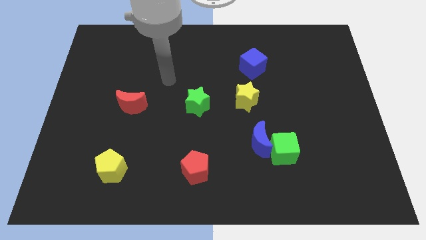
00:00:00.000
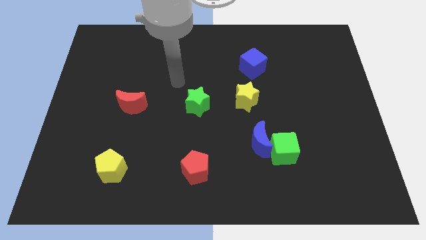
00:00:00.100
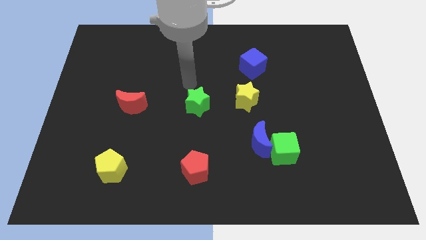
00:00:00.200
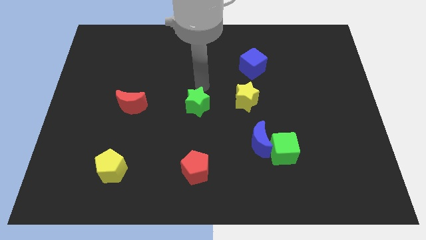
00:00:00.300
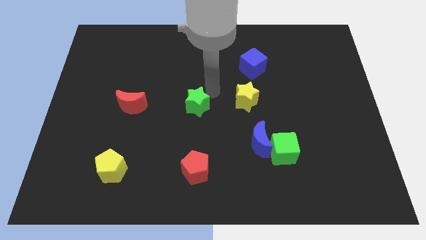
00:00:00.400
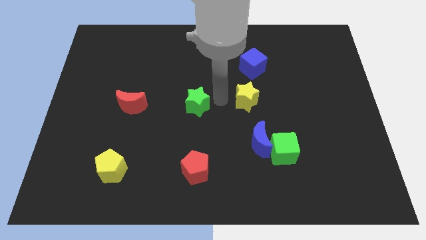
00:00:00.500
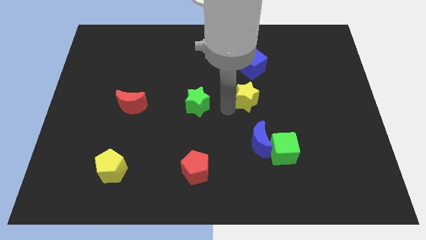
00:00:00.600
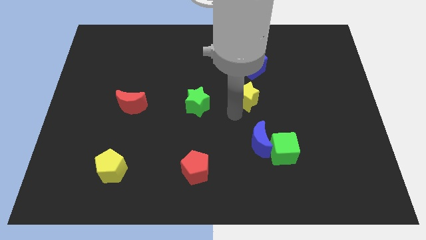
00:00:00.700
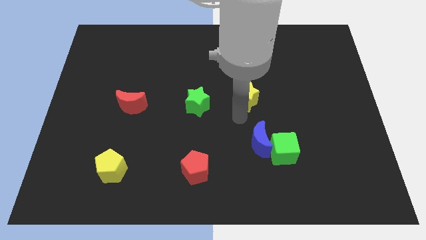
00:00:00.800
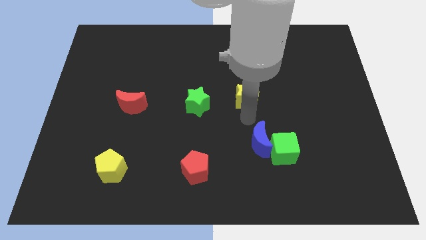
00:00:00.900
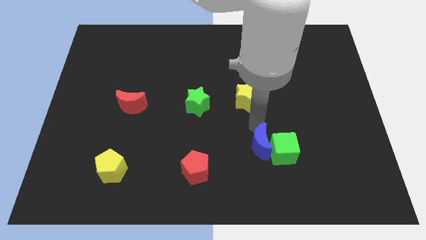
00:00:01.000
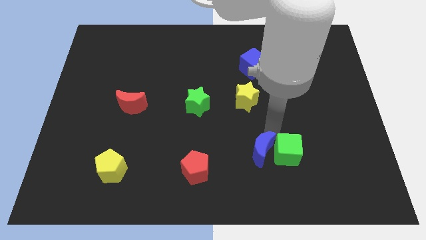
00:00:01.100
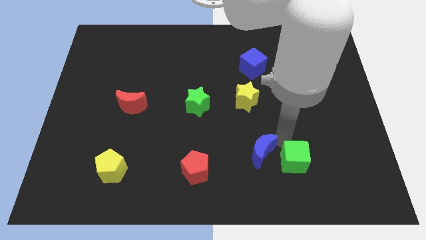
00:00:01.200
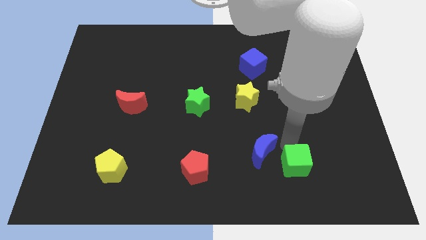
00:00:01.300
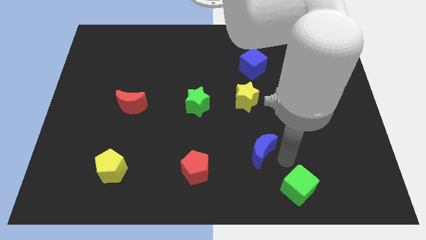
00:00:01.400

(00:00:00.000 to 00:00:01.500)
move the blue moon away from the green cube

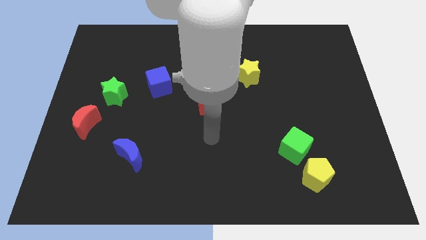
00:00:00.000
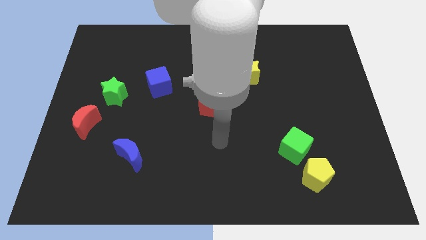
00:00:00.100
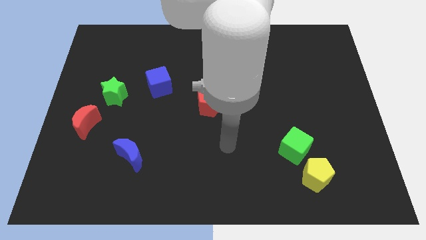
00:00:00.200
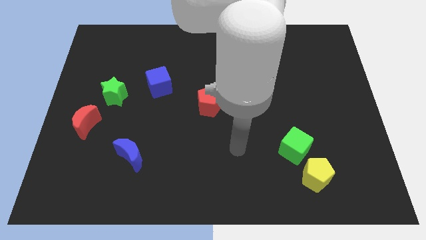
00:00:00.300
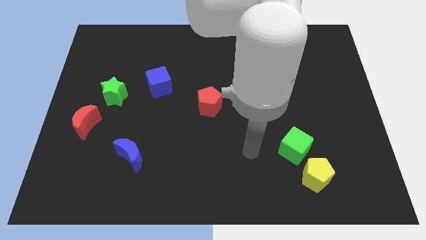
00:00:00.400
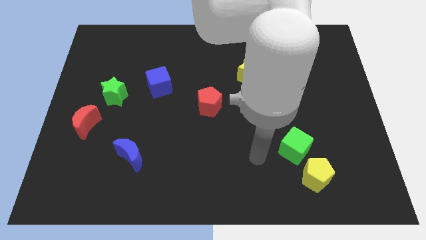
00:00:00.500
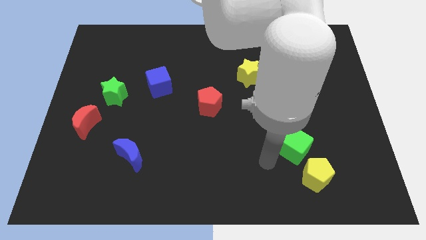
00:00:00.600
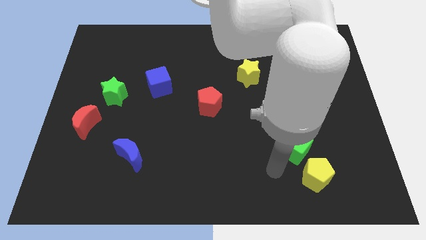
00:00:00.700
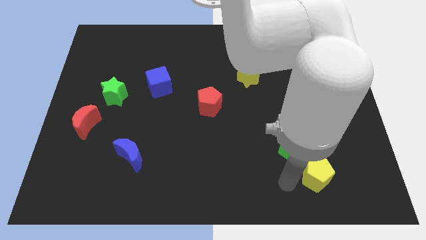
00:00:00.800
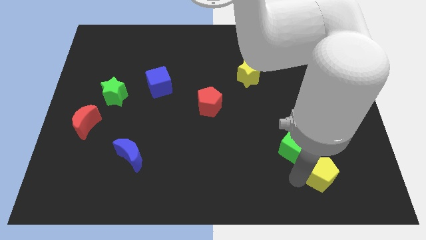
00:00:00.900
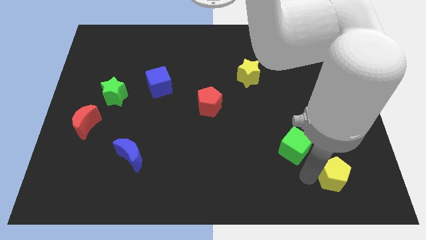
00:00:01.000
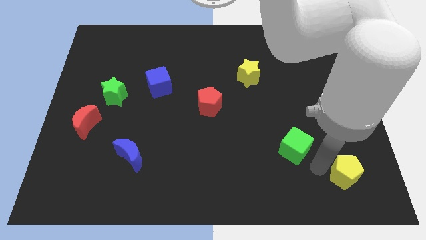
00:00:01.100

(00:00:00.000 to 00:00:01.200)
move the green cube away from the yellow pentagon

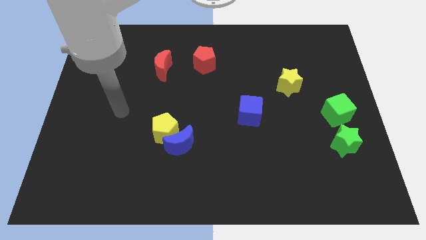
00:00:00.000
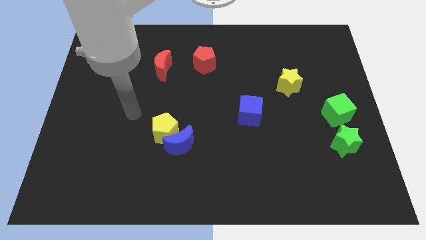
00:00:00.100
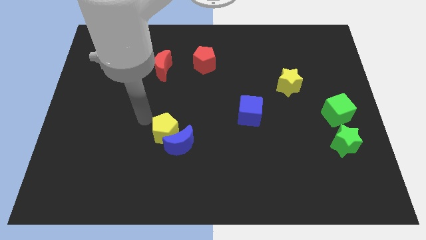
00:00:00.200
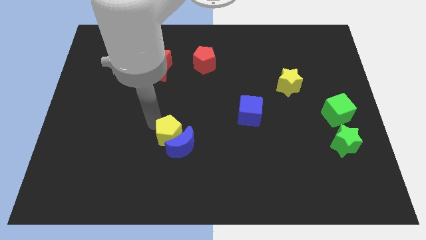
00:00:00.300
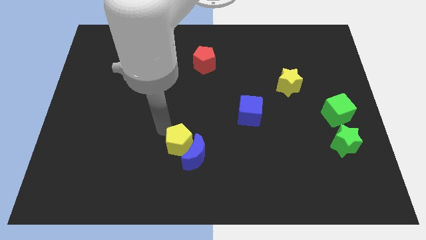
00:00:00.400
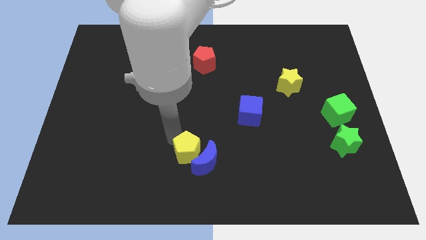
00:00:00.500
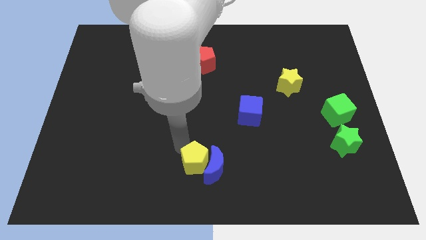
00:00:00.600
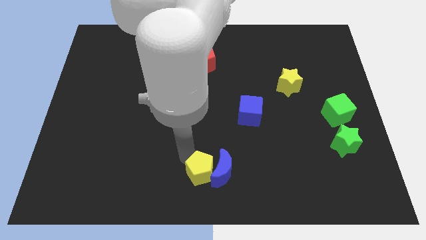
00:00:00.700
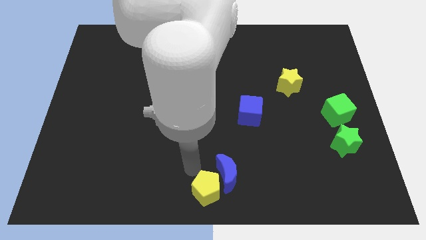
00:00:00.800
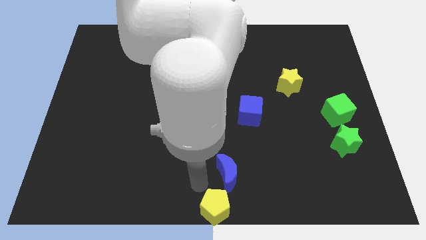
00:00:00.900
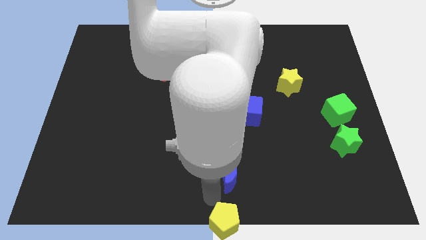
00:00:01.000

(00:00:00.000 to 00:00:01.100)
move the blue moon away from the yellow pentagon

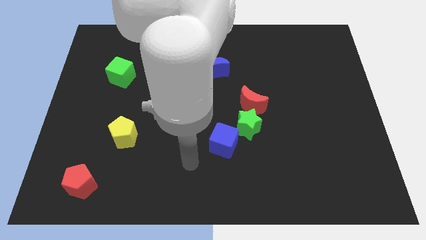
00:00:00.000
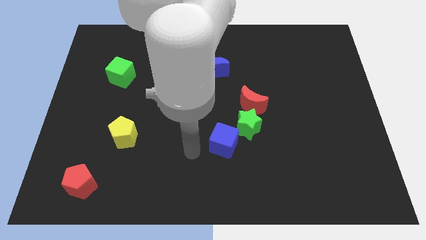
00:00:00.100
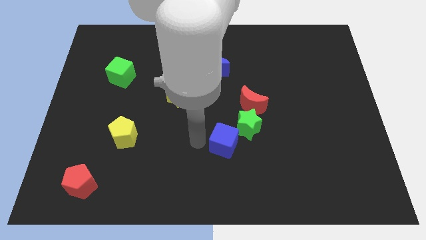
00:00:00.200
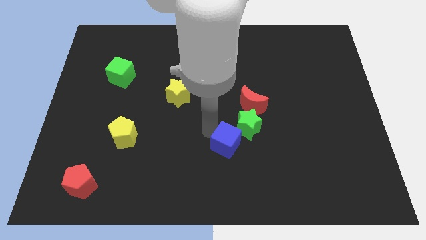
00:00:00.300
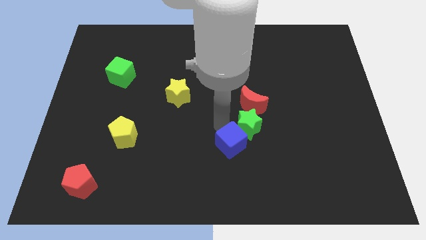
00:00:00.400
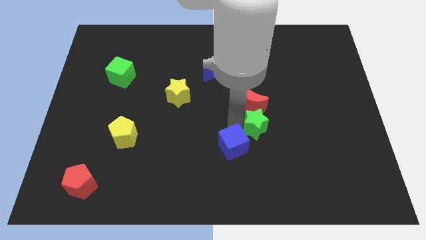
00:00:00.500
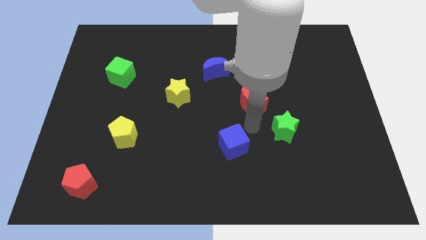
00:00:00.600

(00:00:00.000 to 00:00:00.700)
move the red moon away from the green star

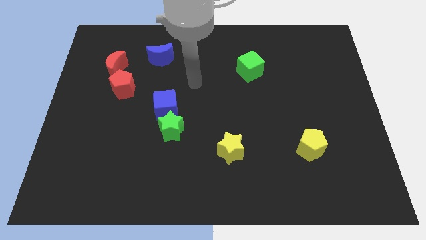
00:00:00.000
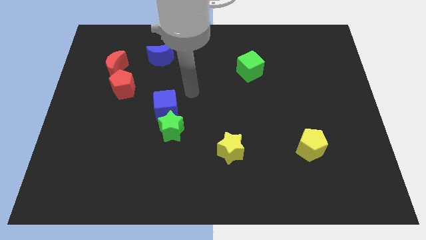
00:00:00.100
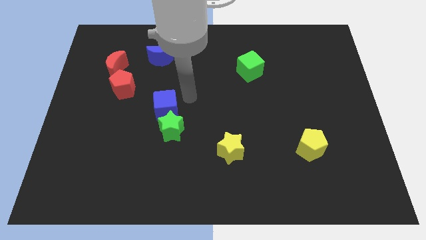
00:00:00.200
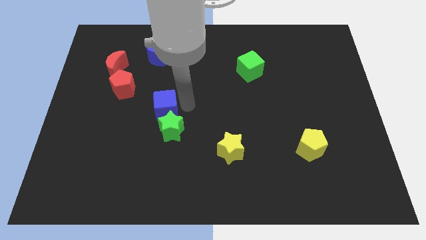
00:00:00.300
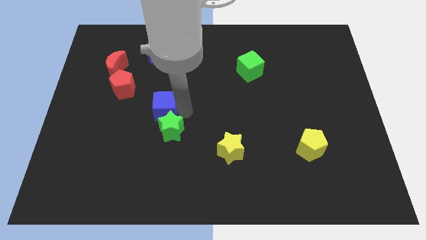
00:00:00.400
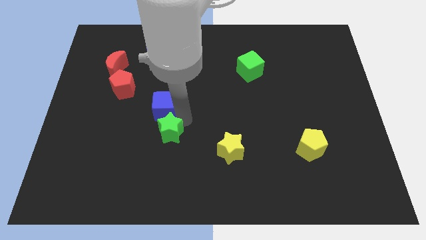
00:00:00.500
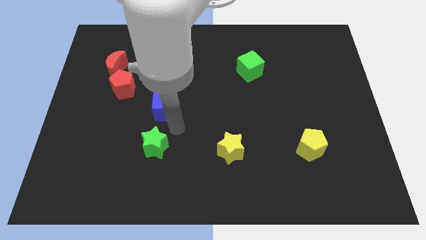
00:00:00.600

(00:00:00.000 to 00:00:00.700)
pull the blue cube apart from the green star

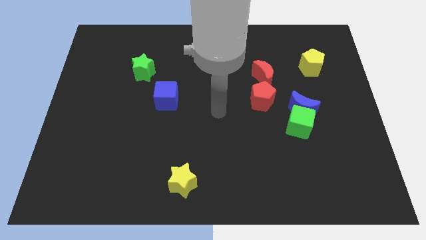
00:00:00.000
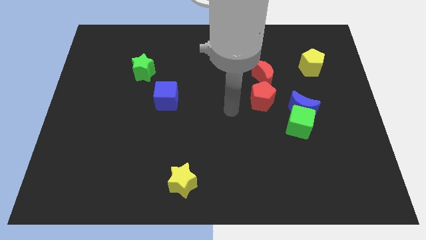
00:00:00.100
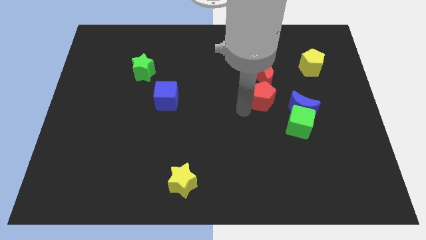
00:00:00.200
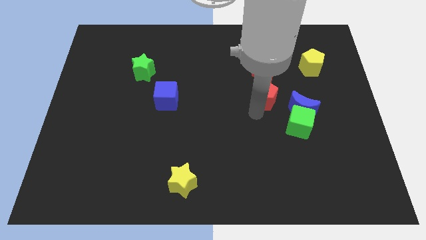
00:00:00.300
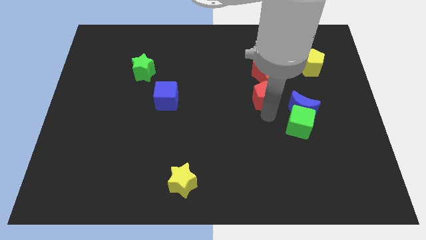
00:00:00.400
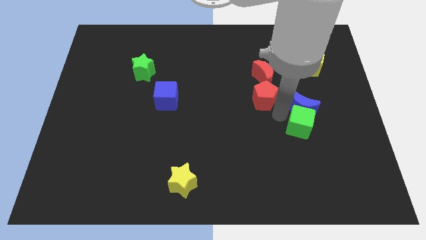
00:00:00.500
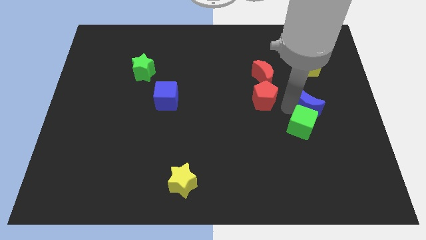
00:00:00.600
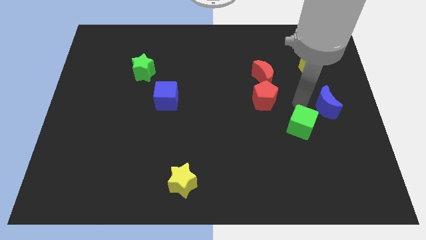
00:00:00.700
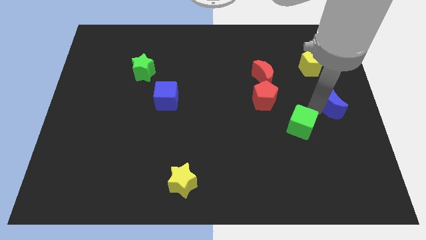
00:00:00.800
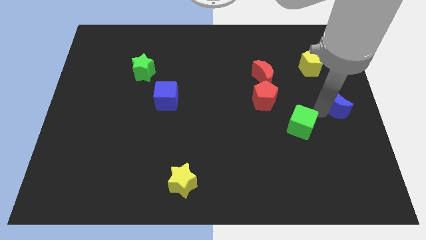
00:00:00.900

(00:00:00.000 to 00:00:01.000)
move the green cube away from the blue moon

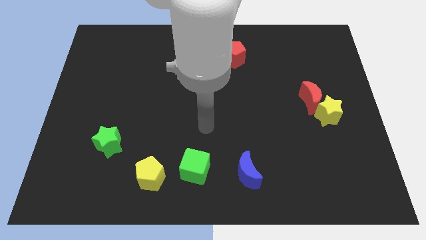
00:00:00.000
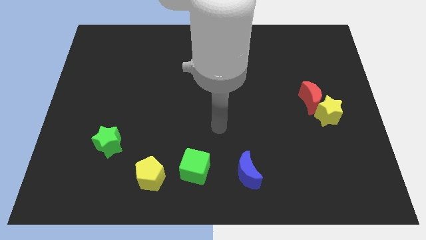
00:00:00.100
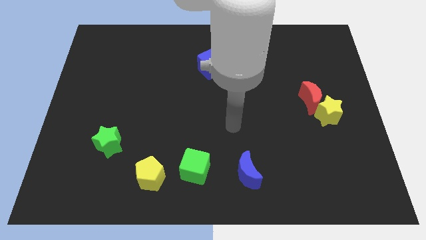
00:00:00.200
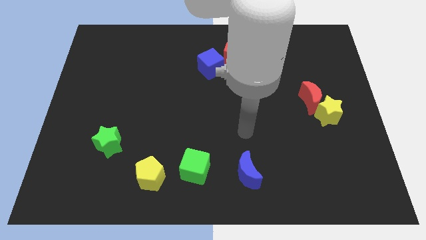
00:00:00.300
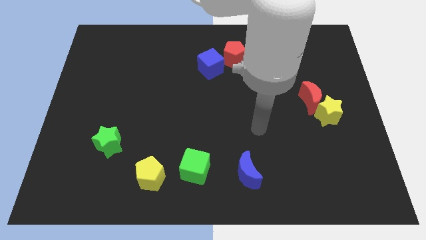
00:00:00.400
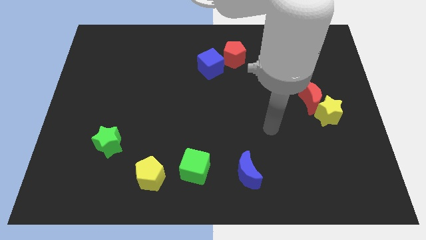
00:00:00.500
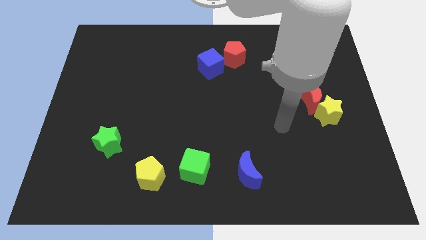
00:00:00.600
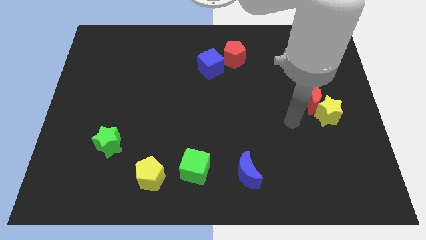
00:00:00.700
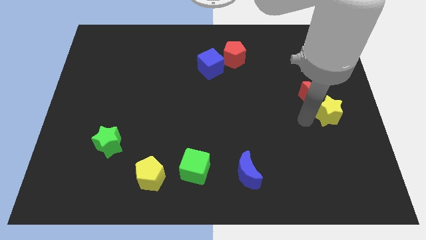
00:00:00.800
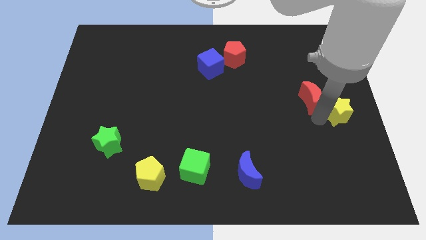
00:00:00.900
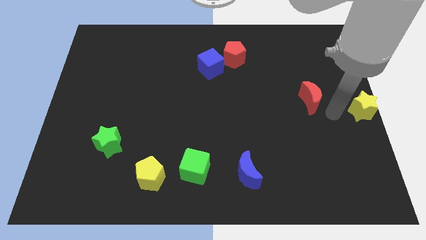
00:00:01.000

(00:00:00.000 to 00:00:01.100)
pull the red moon apart from the yellow star

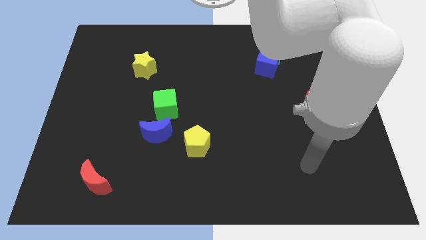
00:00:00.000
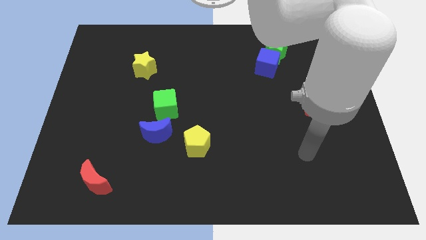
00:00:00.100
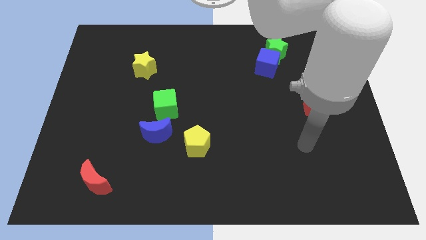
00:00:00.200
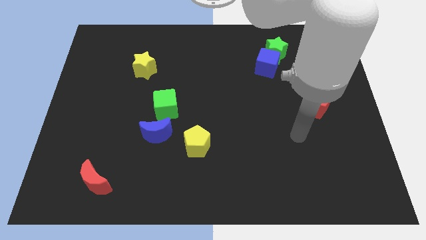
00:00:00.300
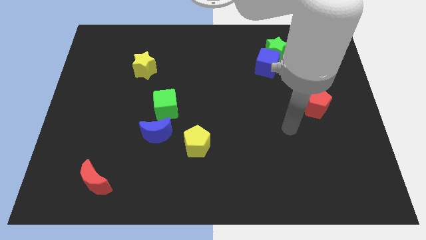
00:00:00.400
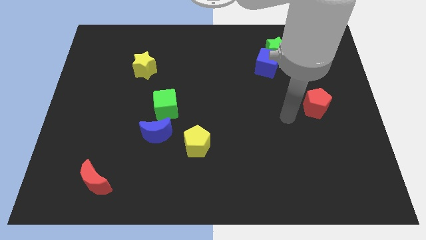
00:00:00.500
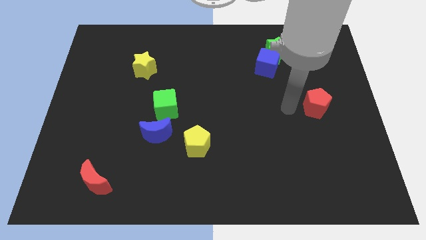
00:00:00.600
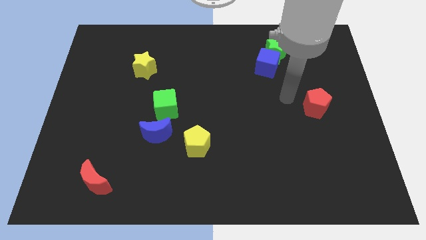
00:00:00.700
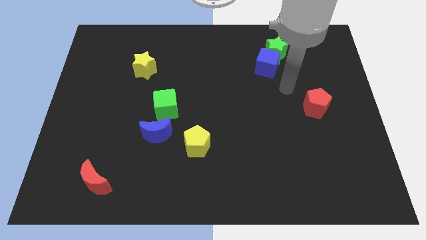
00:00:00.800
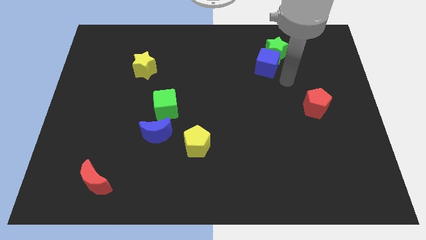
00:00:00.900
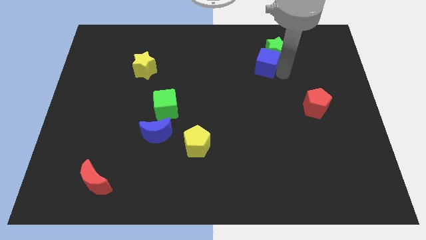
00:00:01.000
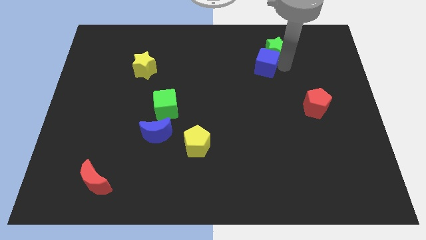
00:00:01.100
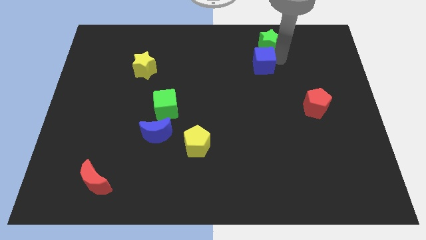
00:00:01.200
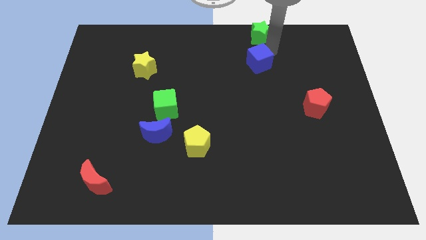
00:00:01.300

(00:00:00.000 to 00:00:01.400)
move the blue cube away from the green star

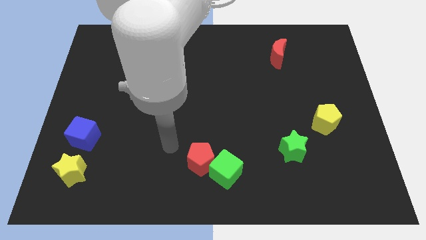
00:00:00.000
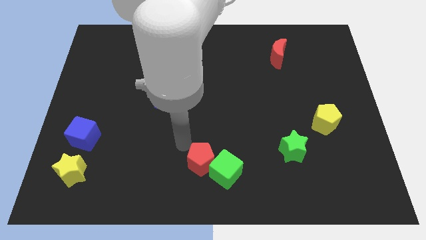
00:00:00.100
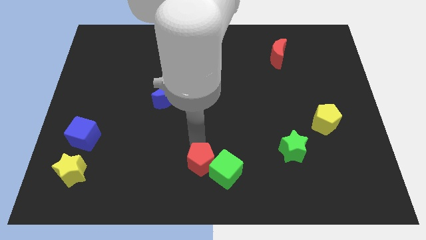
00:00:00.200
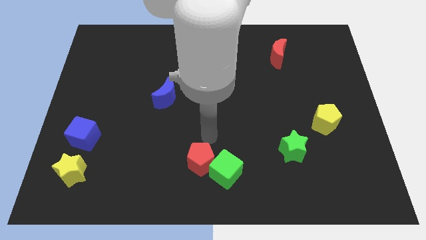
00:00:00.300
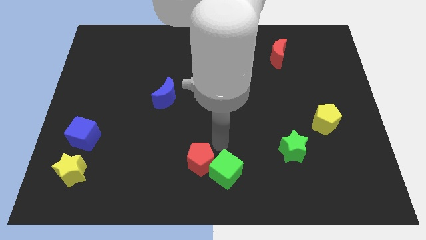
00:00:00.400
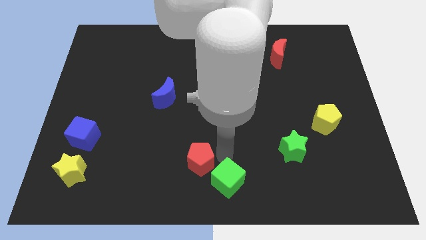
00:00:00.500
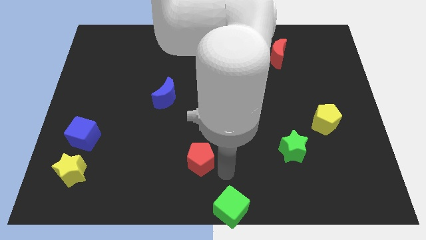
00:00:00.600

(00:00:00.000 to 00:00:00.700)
move the red pentagon away from the green cube
